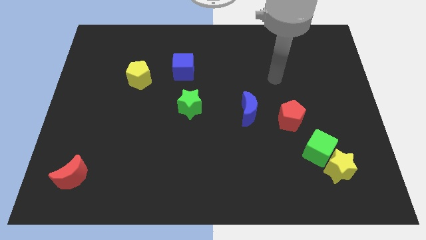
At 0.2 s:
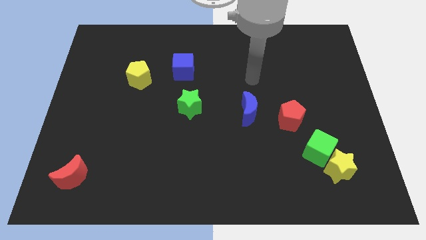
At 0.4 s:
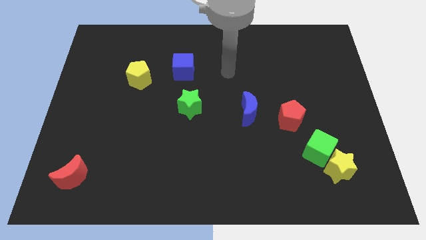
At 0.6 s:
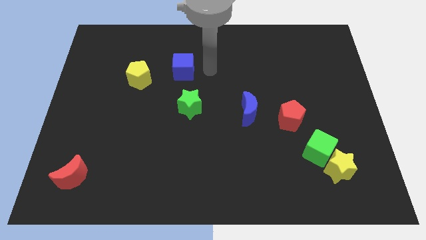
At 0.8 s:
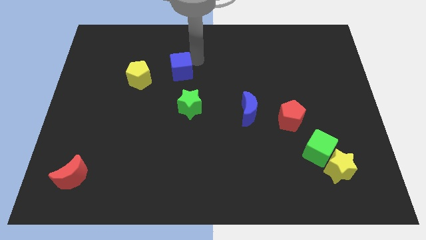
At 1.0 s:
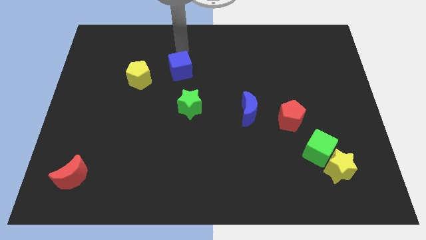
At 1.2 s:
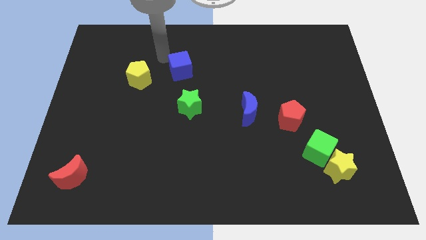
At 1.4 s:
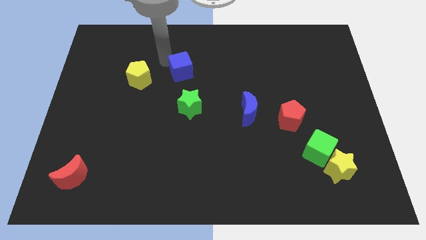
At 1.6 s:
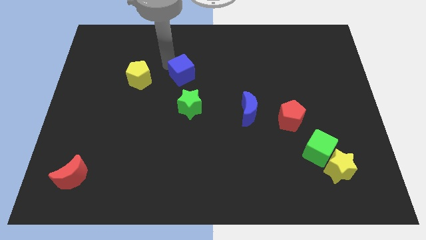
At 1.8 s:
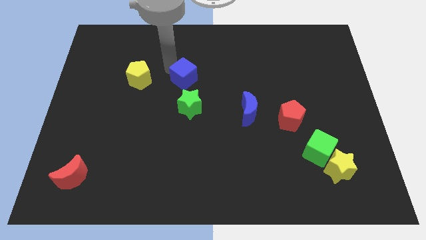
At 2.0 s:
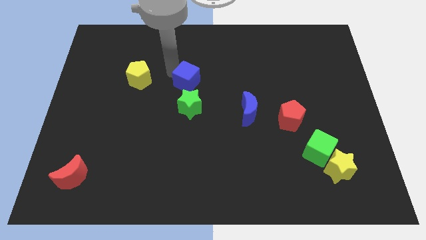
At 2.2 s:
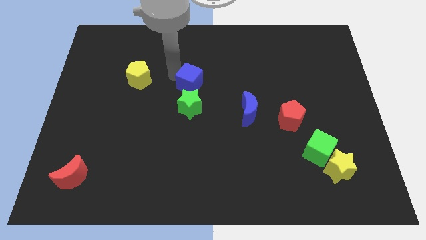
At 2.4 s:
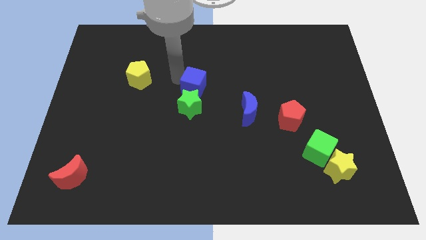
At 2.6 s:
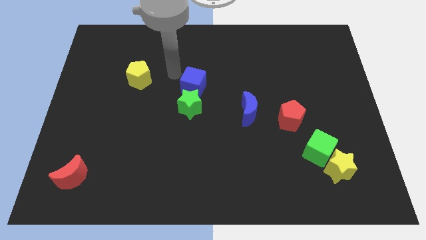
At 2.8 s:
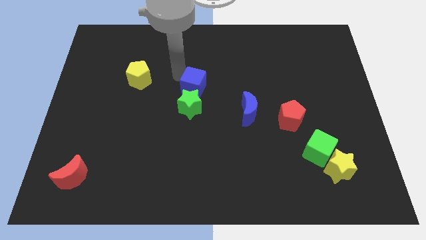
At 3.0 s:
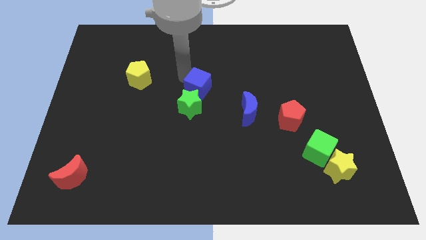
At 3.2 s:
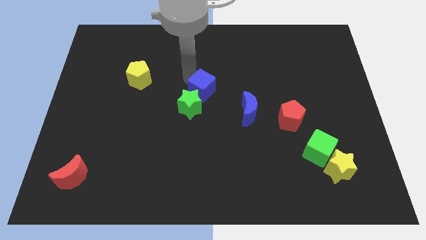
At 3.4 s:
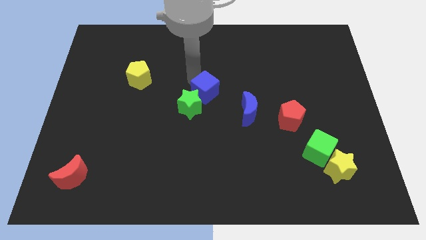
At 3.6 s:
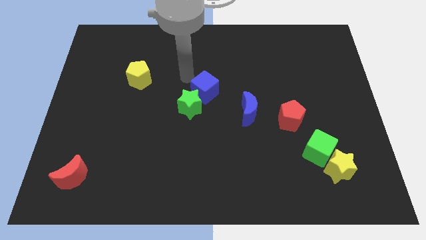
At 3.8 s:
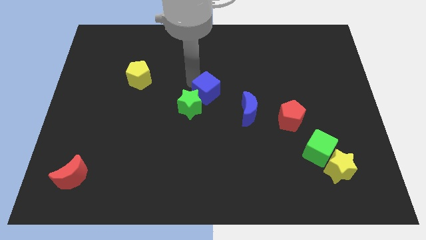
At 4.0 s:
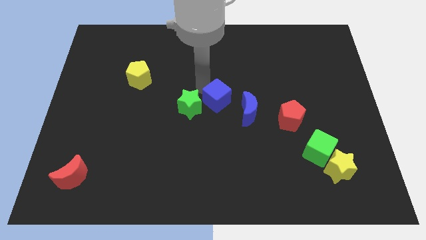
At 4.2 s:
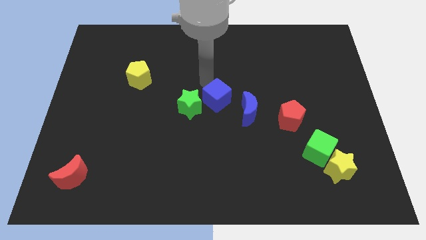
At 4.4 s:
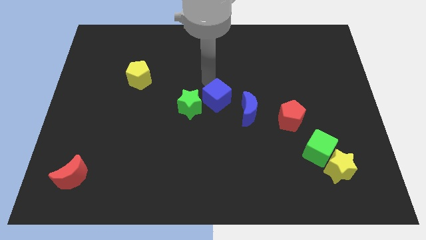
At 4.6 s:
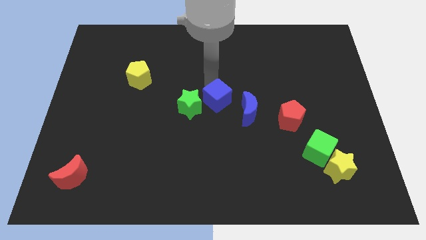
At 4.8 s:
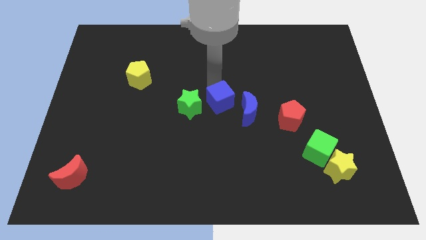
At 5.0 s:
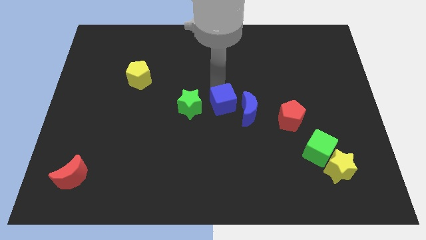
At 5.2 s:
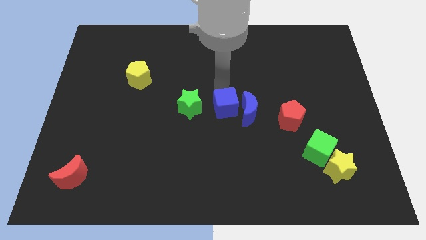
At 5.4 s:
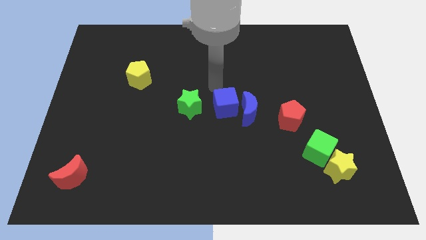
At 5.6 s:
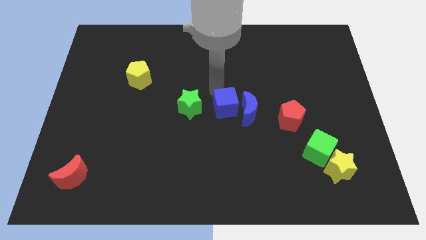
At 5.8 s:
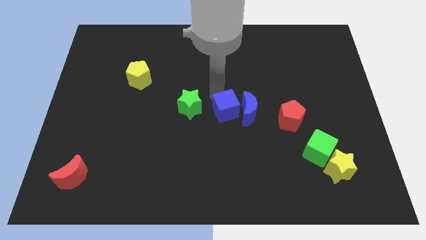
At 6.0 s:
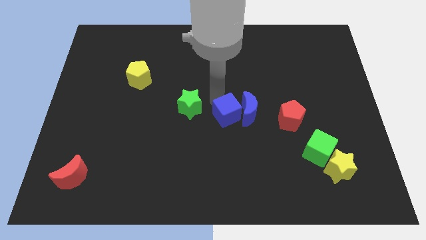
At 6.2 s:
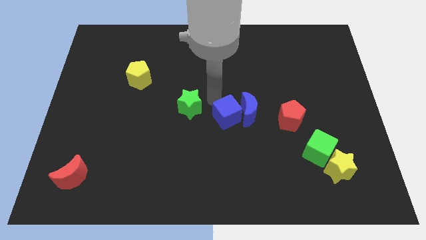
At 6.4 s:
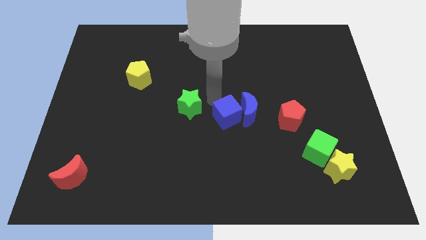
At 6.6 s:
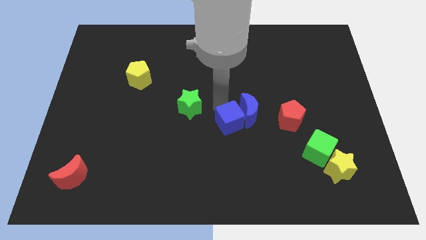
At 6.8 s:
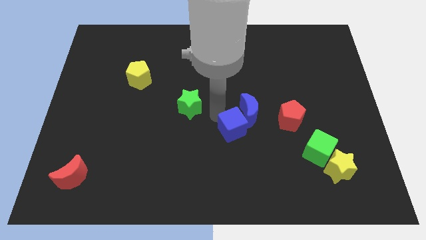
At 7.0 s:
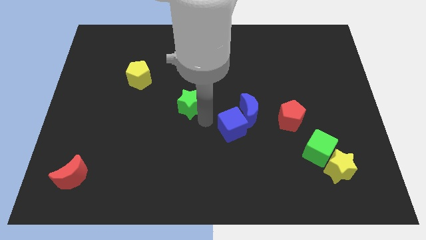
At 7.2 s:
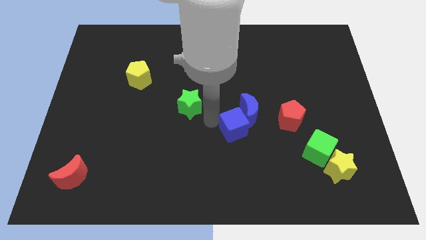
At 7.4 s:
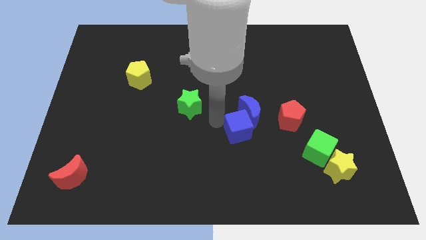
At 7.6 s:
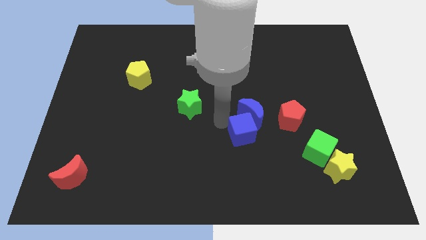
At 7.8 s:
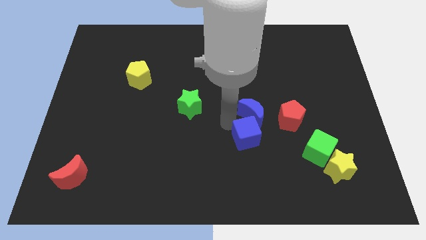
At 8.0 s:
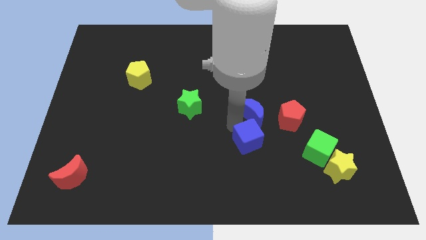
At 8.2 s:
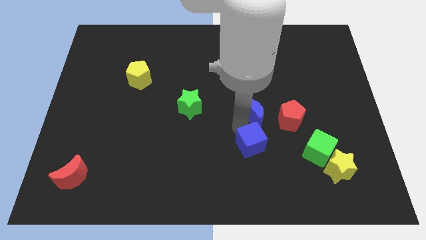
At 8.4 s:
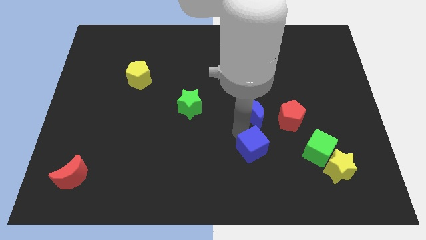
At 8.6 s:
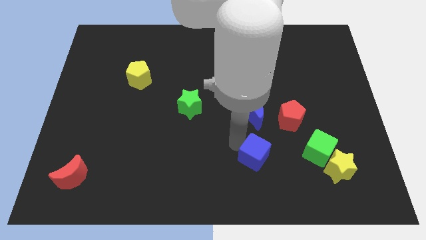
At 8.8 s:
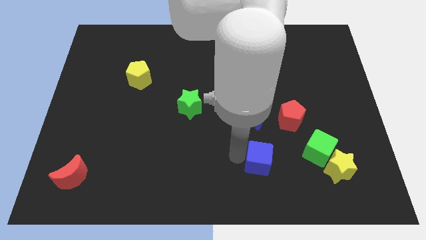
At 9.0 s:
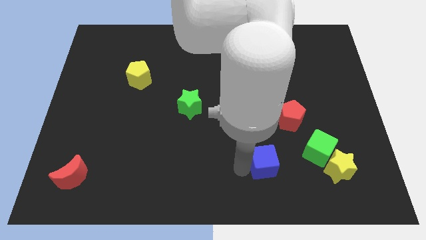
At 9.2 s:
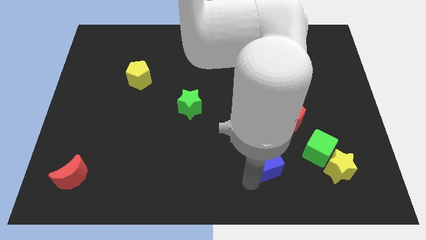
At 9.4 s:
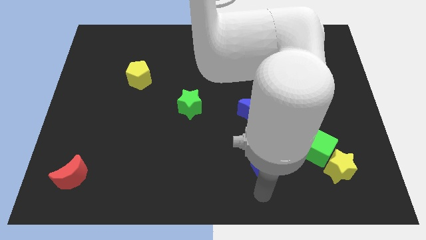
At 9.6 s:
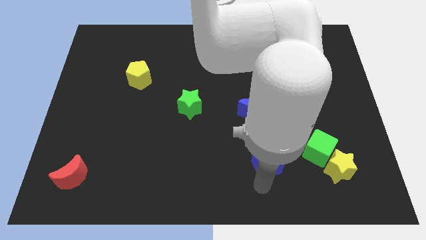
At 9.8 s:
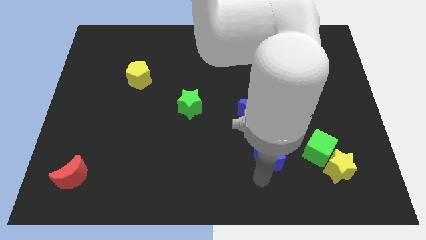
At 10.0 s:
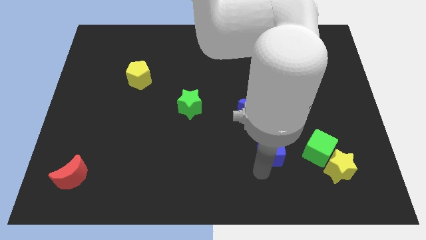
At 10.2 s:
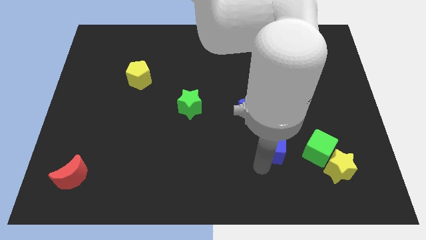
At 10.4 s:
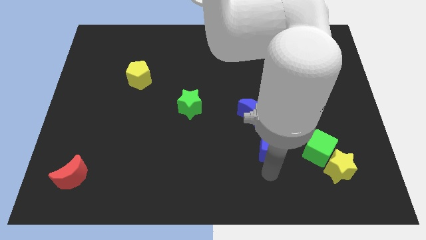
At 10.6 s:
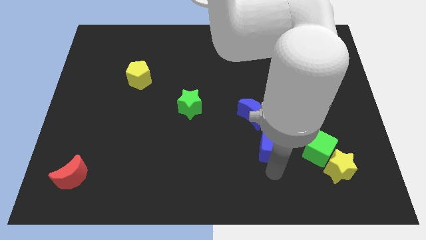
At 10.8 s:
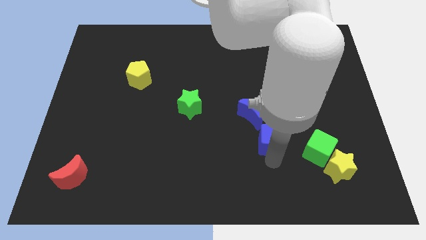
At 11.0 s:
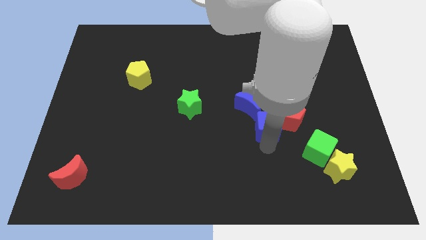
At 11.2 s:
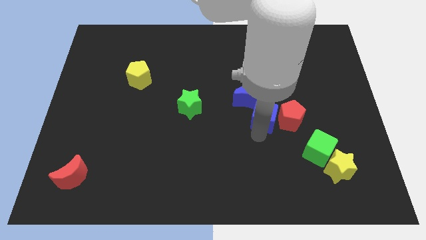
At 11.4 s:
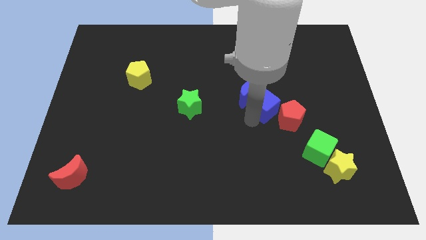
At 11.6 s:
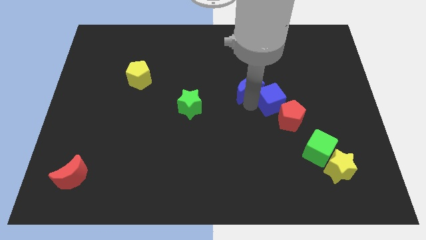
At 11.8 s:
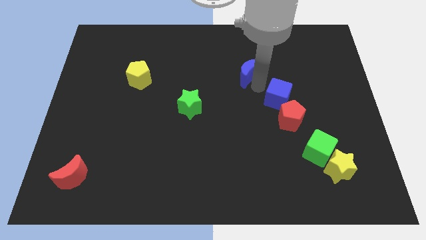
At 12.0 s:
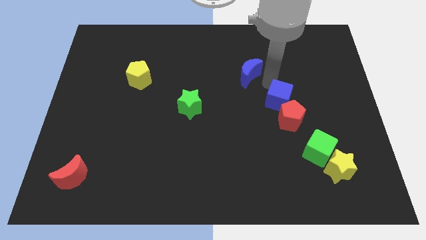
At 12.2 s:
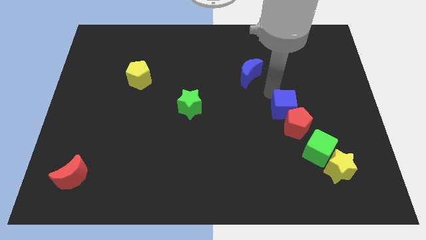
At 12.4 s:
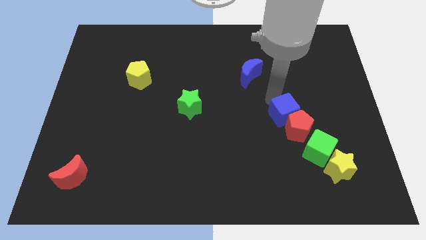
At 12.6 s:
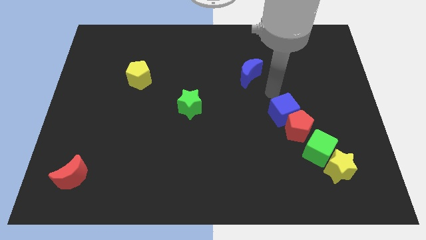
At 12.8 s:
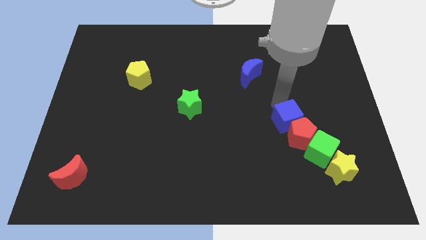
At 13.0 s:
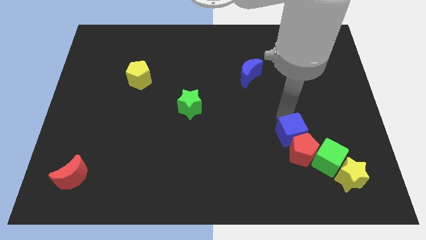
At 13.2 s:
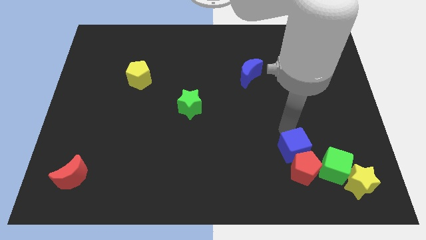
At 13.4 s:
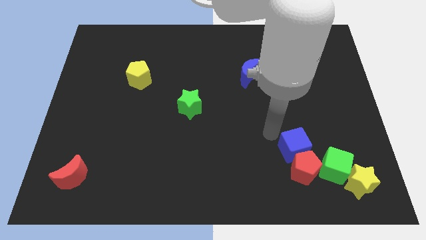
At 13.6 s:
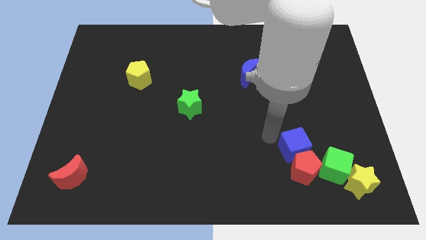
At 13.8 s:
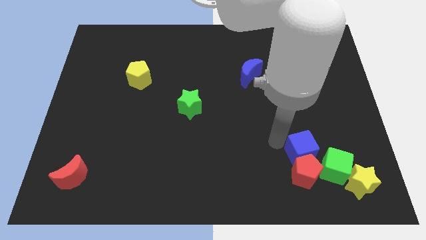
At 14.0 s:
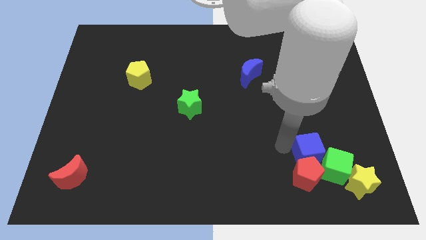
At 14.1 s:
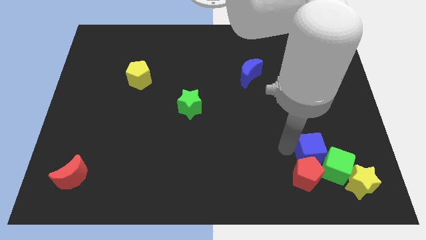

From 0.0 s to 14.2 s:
put the blue cube next to the green cube
